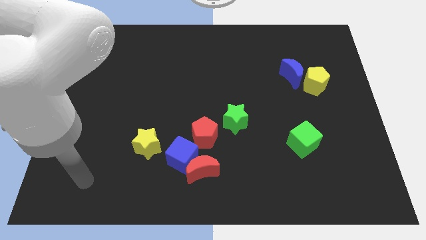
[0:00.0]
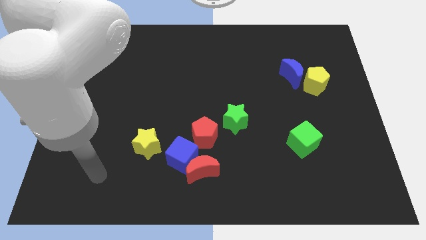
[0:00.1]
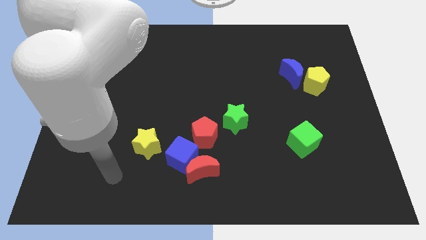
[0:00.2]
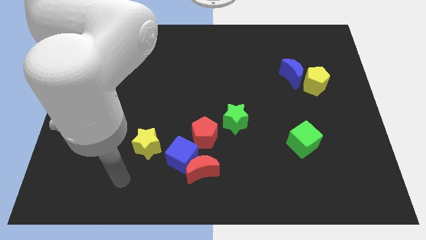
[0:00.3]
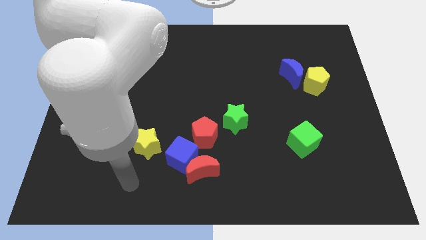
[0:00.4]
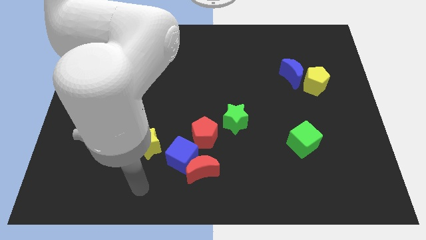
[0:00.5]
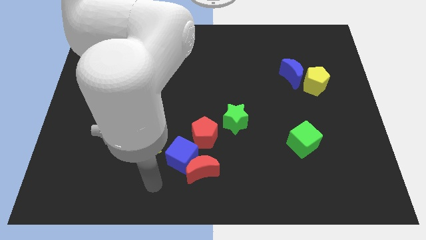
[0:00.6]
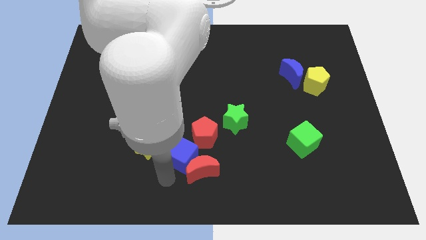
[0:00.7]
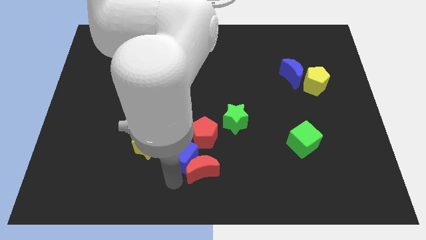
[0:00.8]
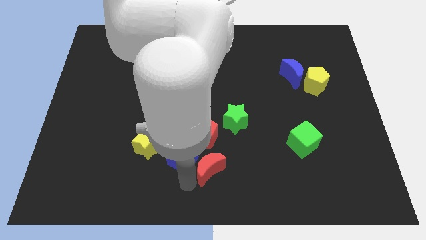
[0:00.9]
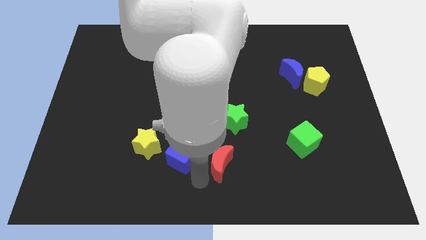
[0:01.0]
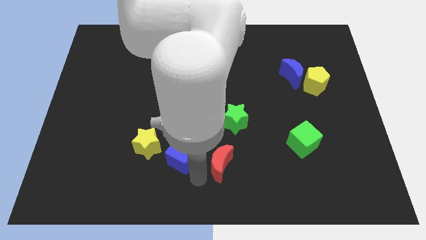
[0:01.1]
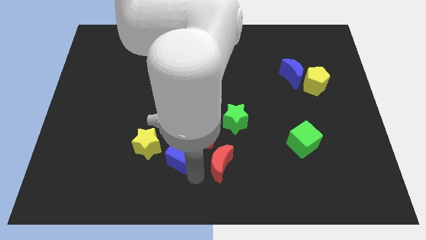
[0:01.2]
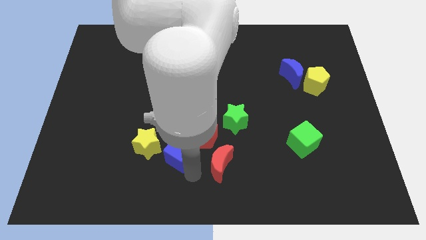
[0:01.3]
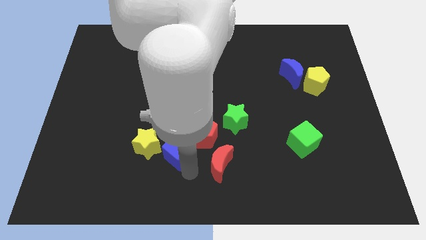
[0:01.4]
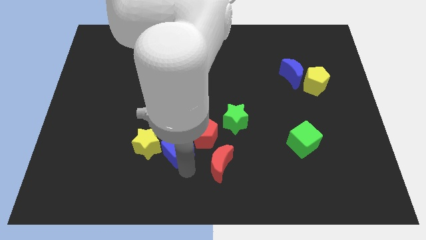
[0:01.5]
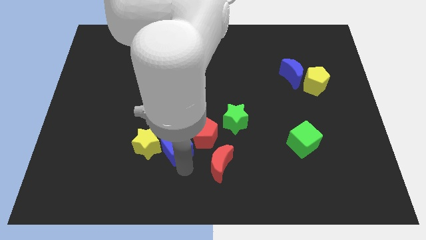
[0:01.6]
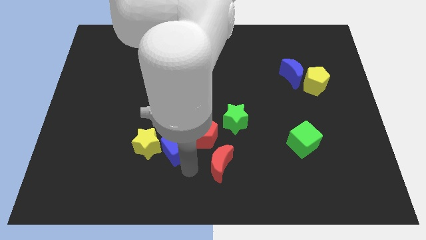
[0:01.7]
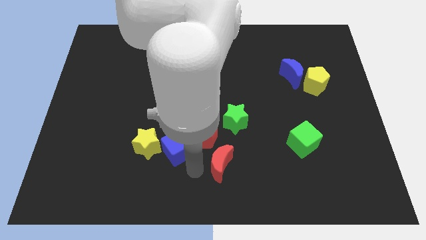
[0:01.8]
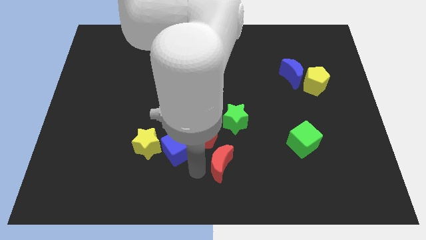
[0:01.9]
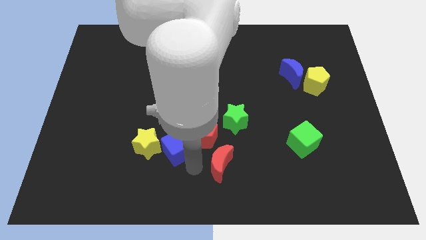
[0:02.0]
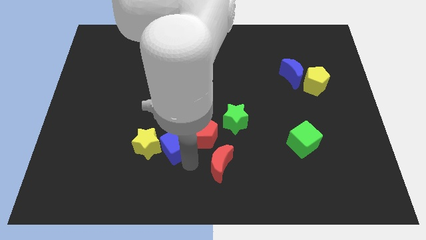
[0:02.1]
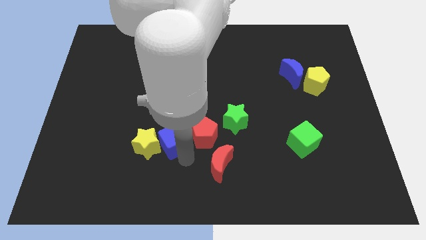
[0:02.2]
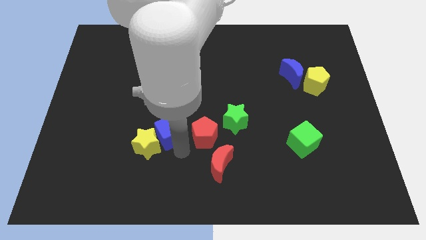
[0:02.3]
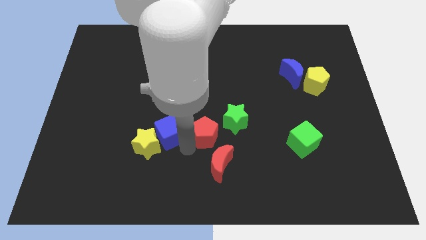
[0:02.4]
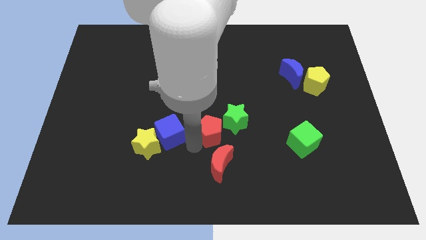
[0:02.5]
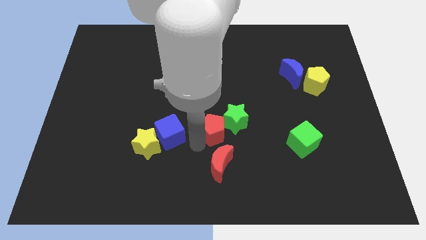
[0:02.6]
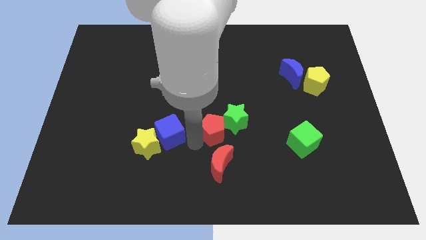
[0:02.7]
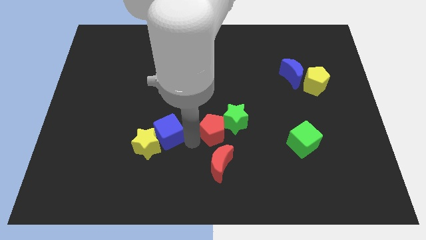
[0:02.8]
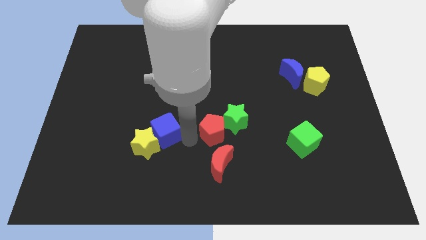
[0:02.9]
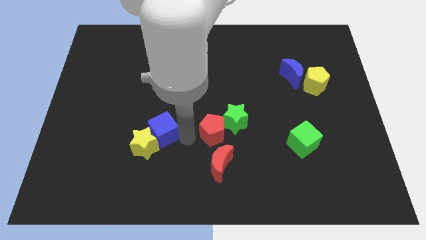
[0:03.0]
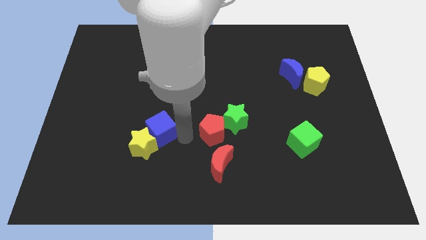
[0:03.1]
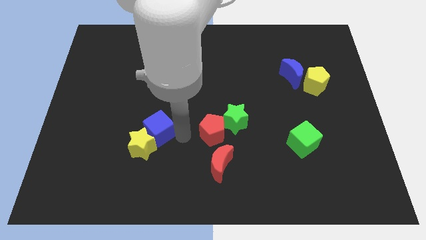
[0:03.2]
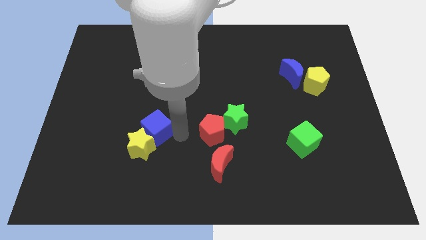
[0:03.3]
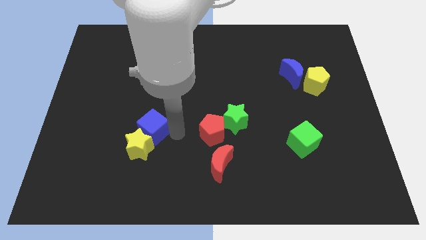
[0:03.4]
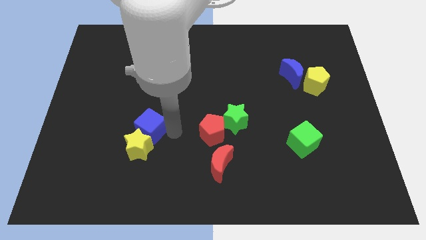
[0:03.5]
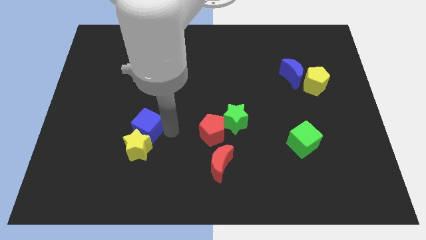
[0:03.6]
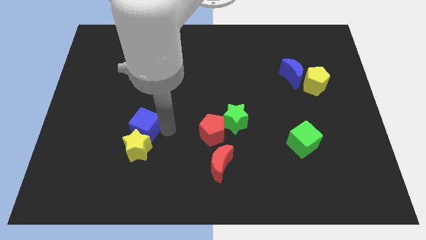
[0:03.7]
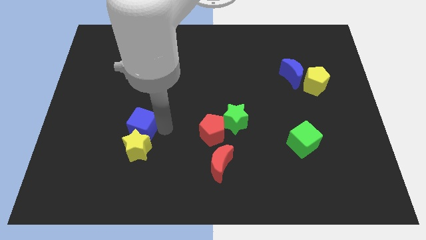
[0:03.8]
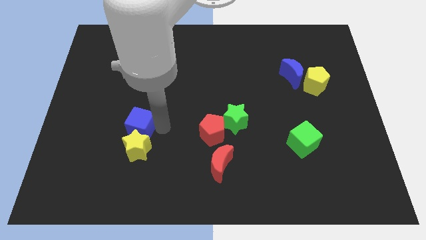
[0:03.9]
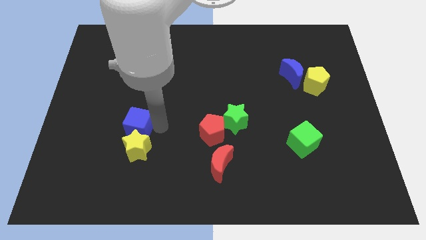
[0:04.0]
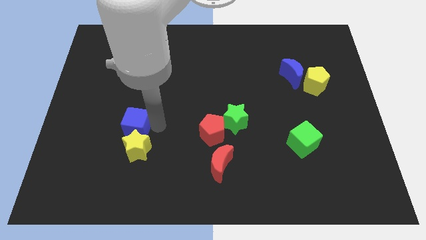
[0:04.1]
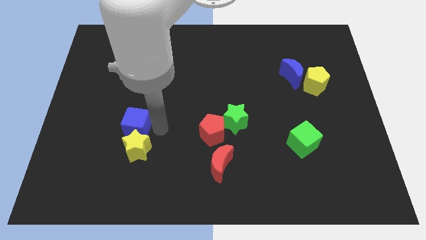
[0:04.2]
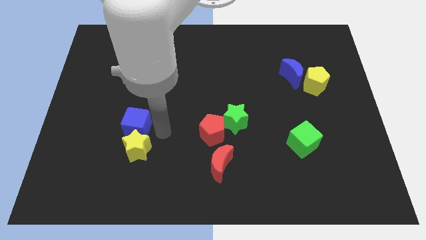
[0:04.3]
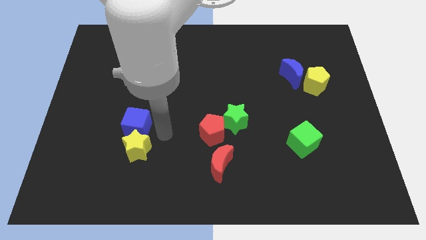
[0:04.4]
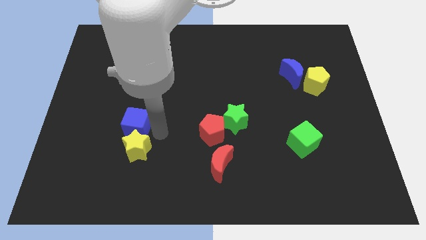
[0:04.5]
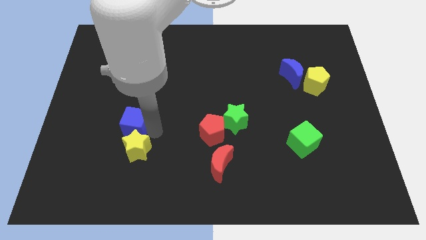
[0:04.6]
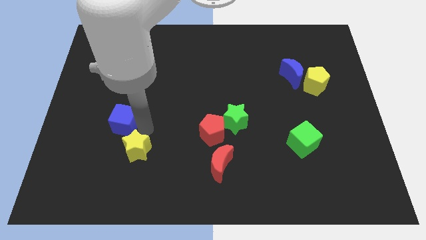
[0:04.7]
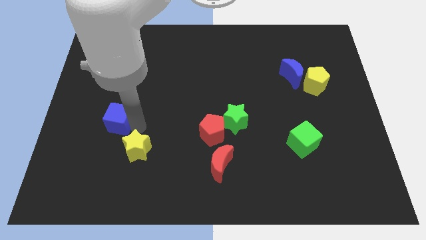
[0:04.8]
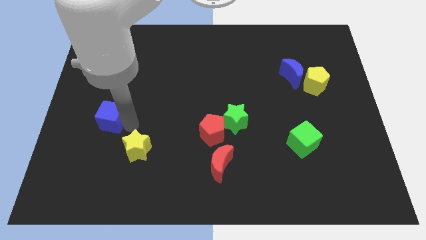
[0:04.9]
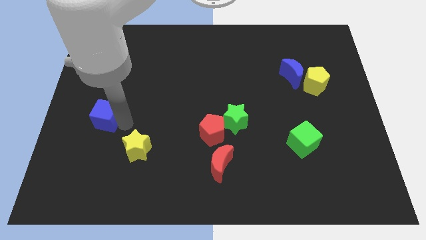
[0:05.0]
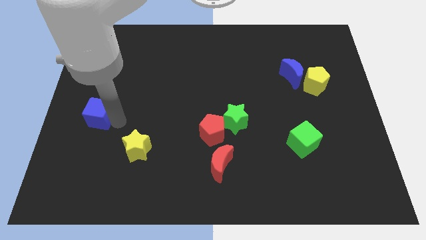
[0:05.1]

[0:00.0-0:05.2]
put the blue cube to the left side

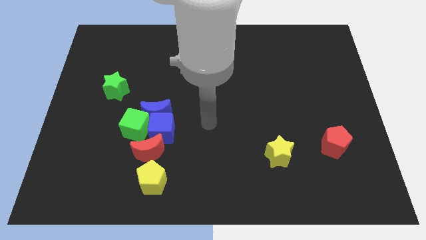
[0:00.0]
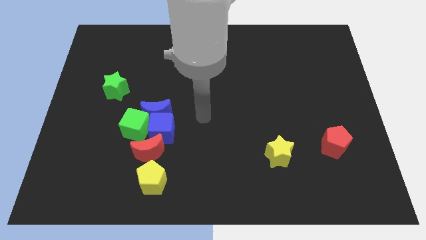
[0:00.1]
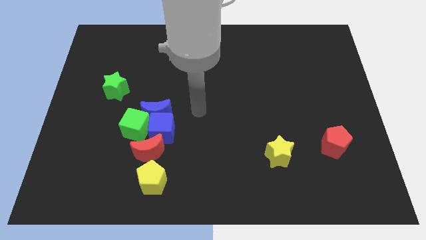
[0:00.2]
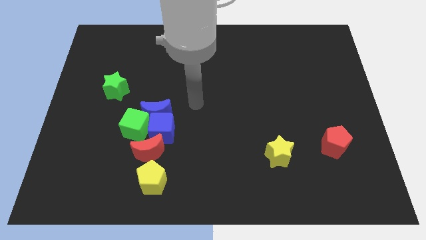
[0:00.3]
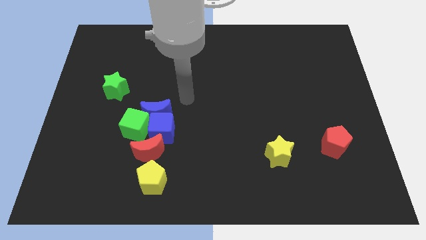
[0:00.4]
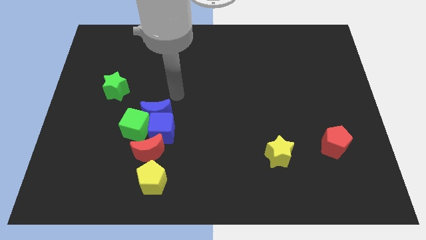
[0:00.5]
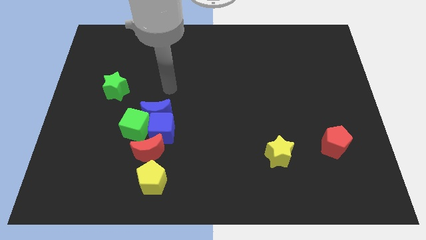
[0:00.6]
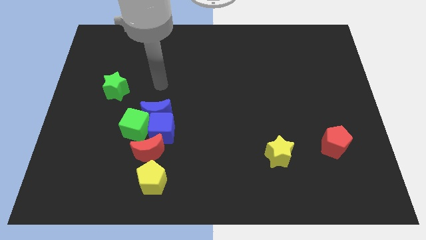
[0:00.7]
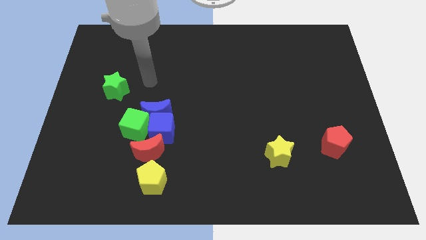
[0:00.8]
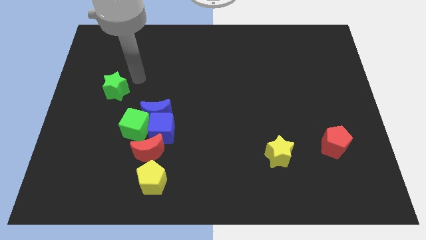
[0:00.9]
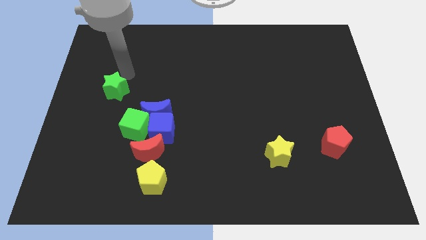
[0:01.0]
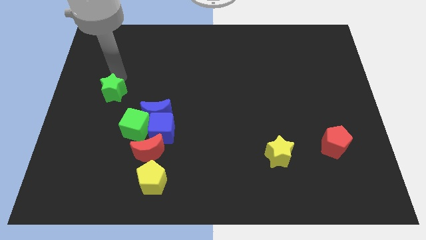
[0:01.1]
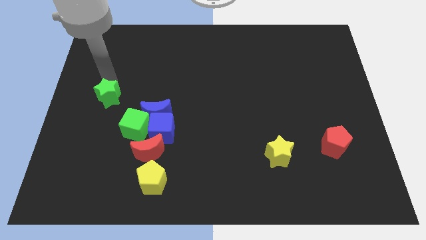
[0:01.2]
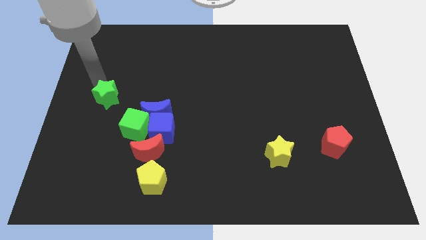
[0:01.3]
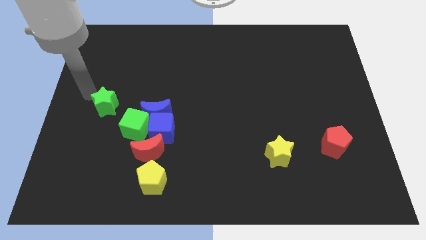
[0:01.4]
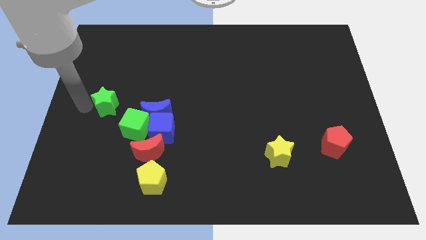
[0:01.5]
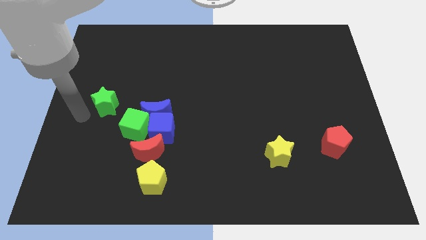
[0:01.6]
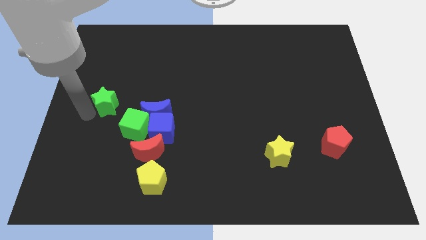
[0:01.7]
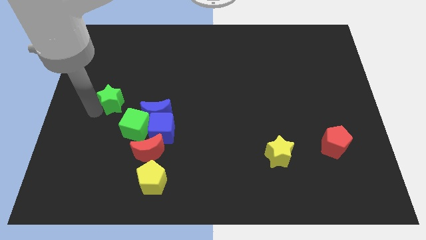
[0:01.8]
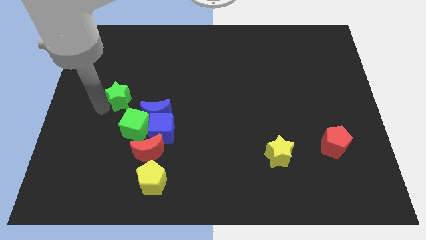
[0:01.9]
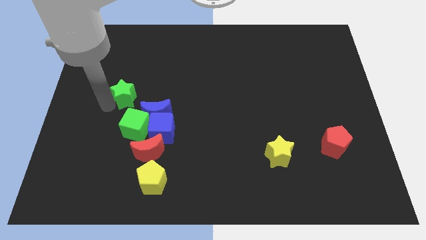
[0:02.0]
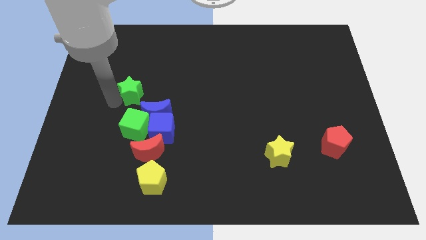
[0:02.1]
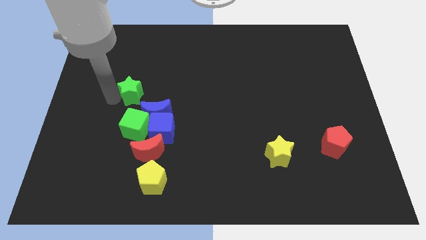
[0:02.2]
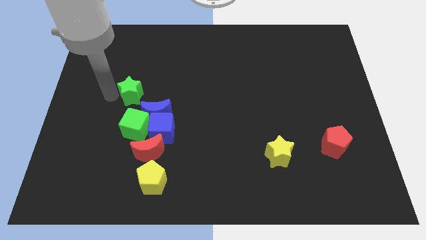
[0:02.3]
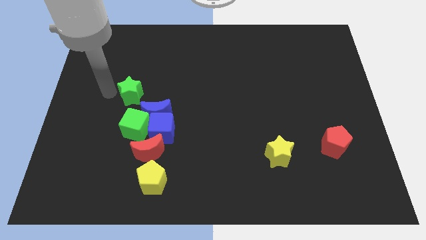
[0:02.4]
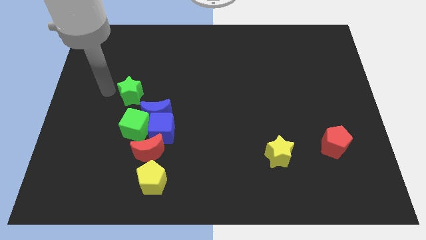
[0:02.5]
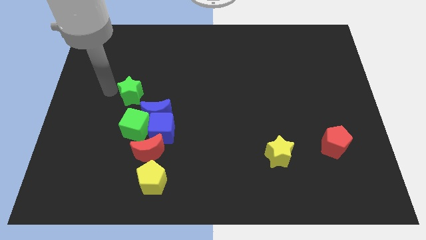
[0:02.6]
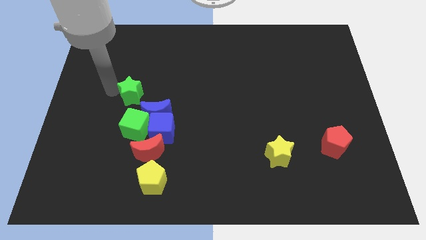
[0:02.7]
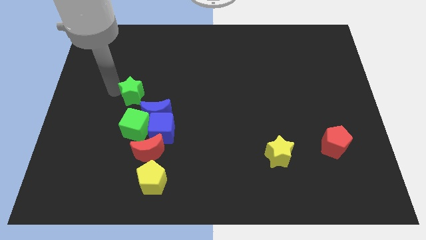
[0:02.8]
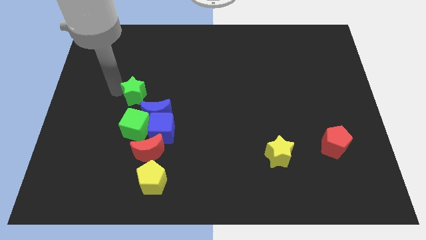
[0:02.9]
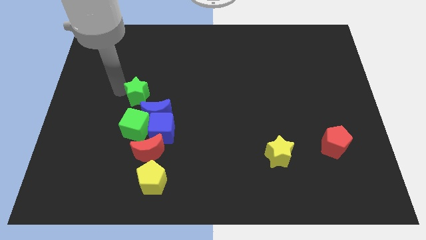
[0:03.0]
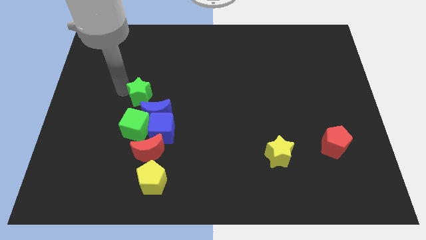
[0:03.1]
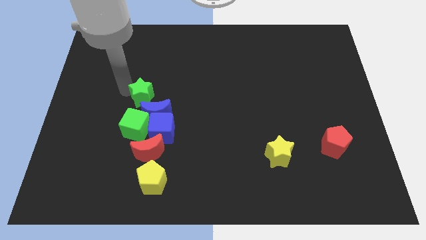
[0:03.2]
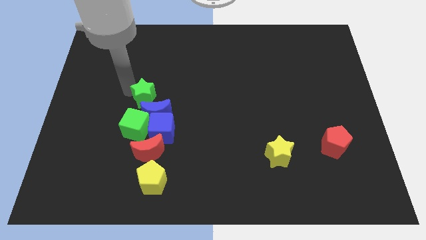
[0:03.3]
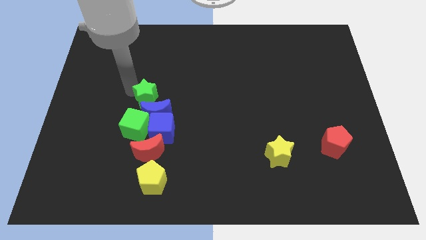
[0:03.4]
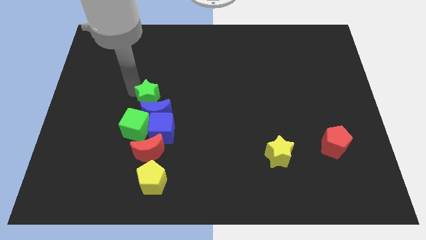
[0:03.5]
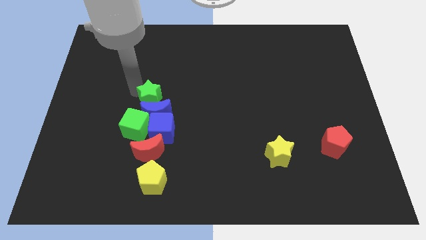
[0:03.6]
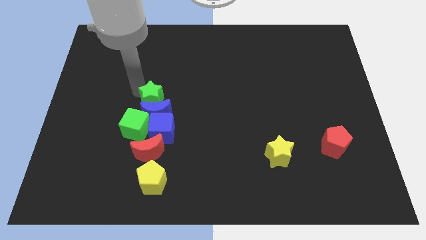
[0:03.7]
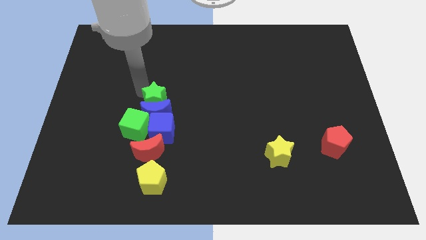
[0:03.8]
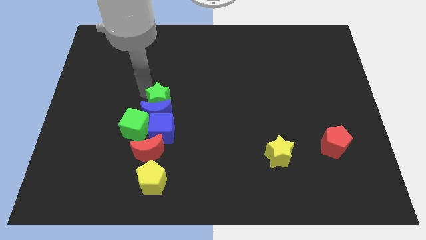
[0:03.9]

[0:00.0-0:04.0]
push the green star to the center of the board
